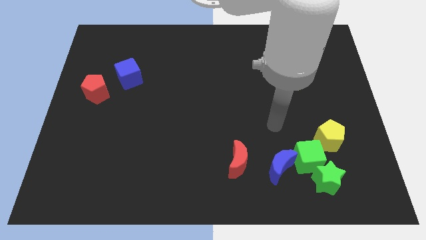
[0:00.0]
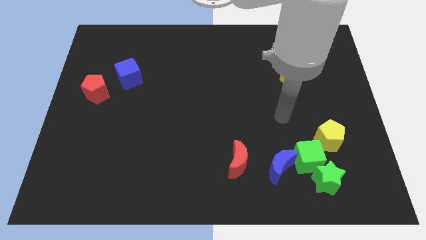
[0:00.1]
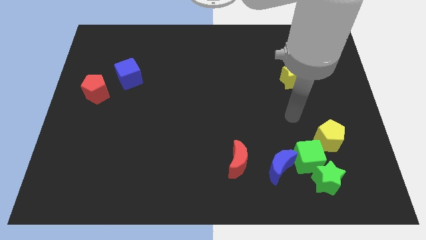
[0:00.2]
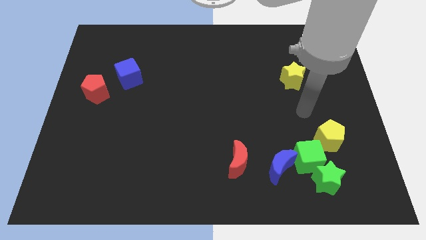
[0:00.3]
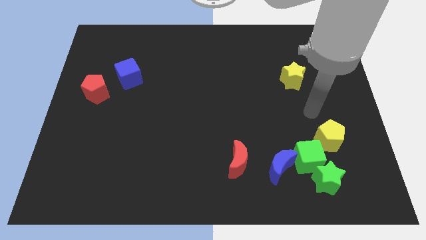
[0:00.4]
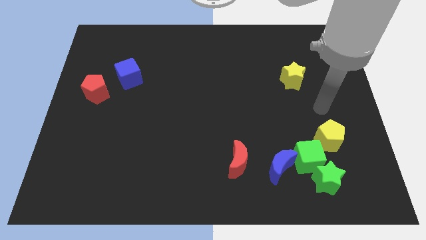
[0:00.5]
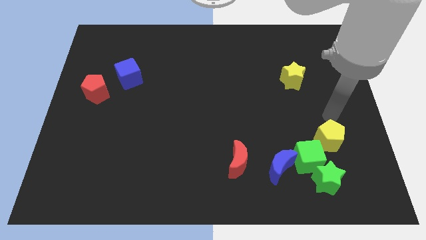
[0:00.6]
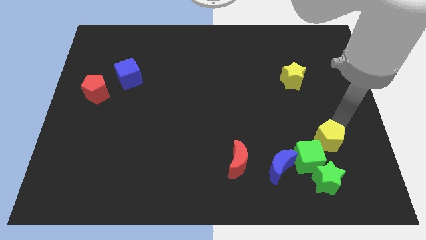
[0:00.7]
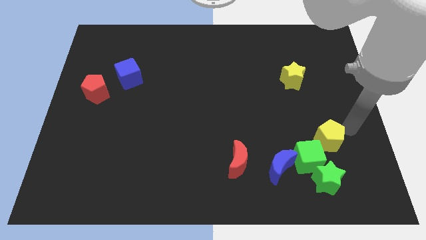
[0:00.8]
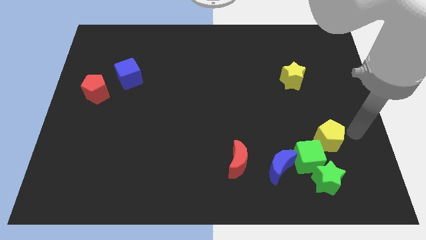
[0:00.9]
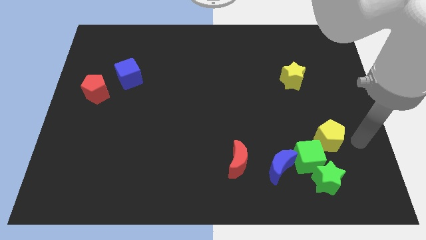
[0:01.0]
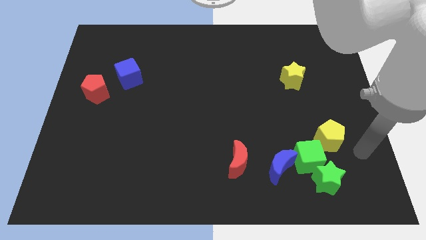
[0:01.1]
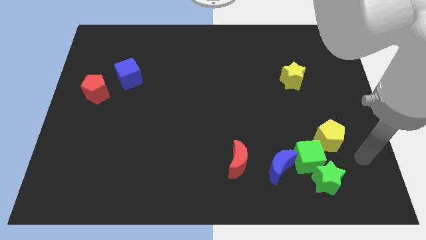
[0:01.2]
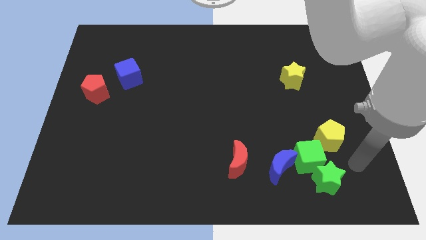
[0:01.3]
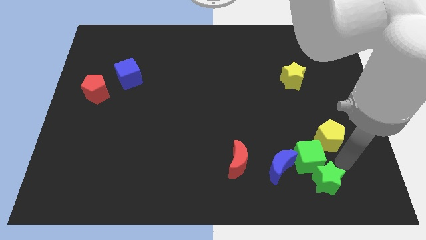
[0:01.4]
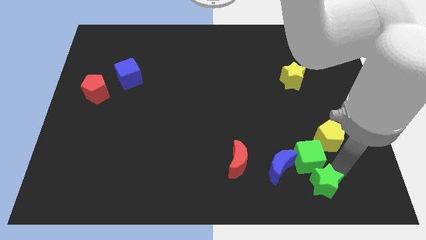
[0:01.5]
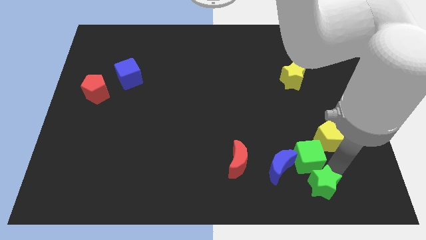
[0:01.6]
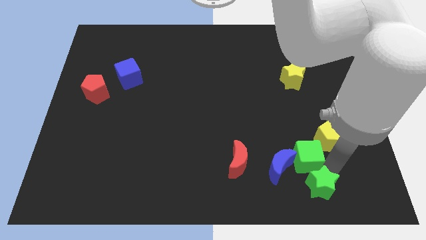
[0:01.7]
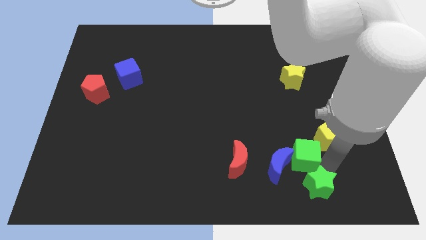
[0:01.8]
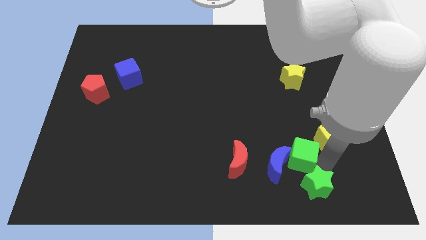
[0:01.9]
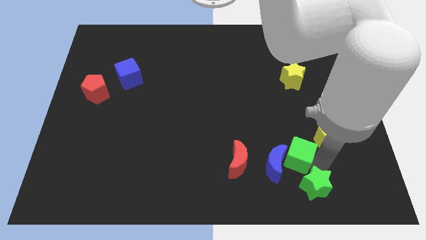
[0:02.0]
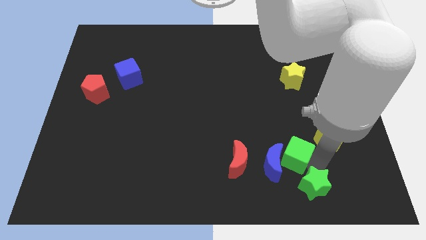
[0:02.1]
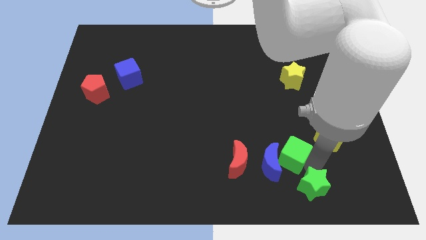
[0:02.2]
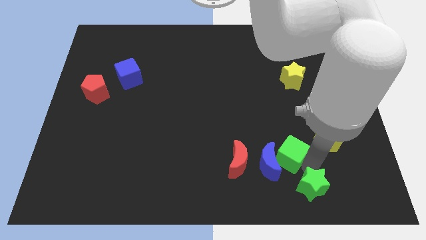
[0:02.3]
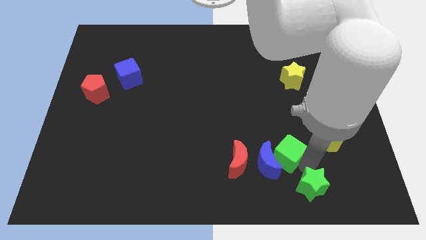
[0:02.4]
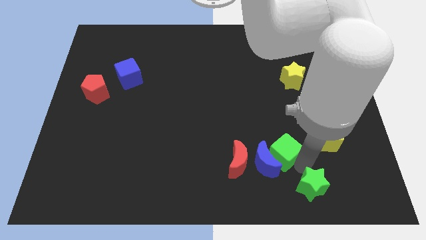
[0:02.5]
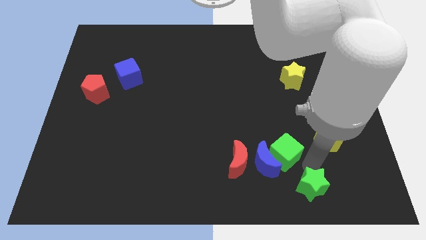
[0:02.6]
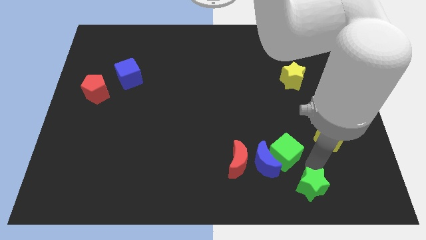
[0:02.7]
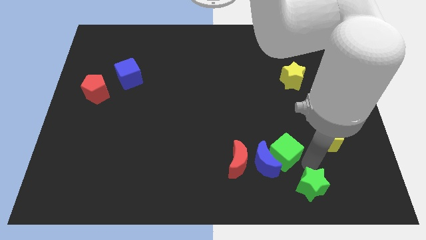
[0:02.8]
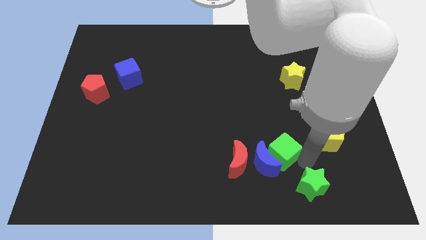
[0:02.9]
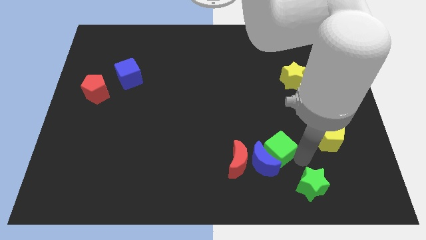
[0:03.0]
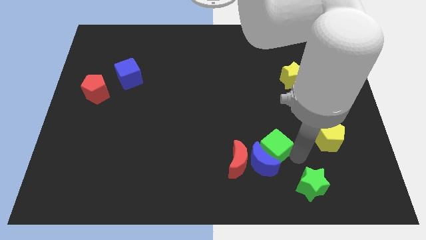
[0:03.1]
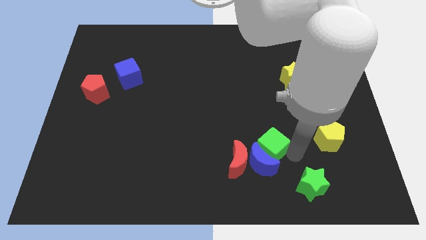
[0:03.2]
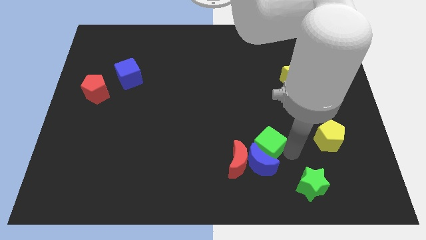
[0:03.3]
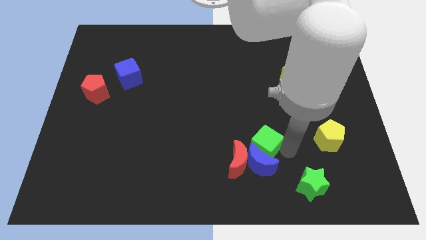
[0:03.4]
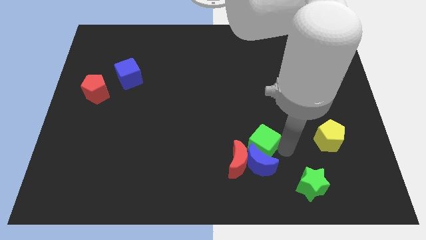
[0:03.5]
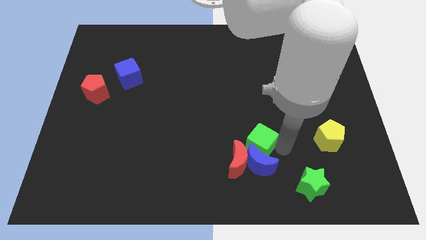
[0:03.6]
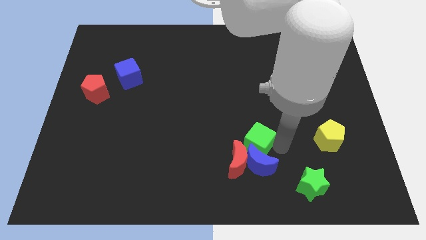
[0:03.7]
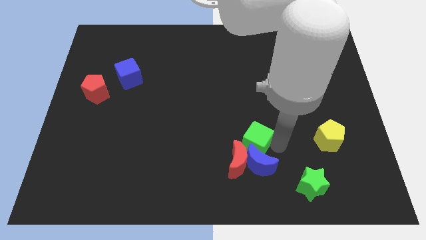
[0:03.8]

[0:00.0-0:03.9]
separate the green cube from the clump

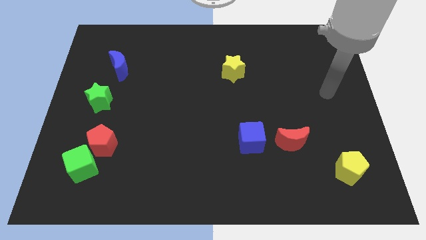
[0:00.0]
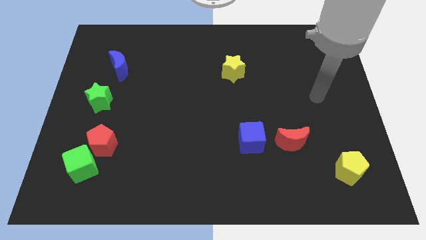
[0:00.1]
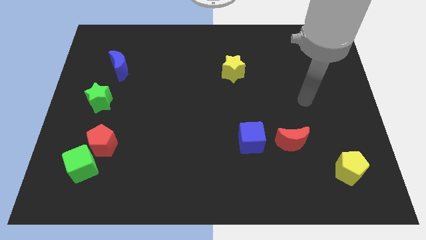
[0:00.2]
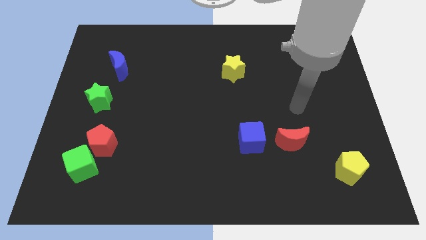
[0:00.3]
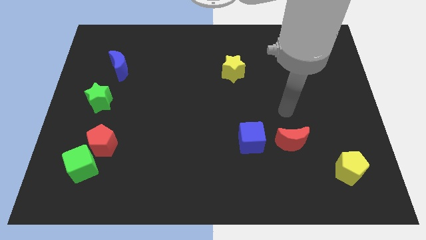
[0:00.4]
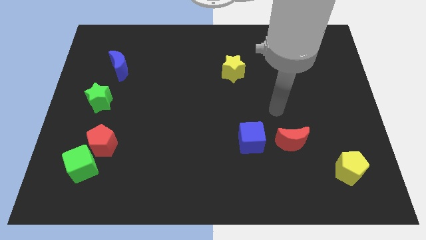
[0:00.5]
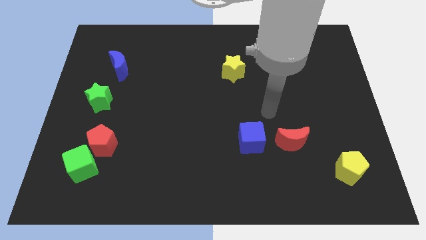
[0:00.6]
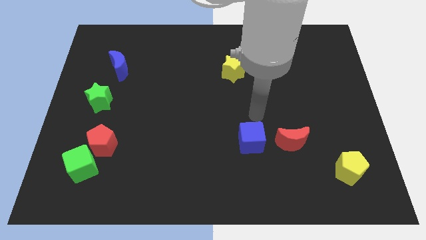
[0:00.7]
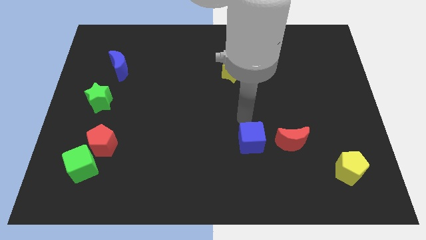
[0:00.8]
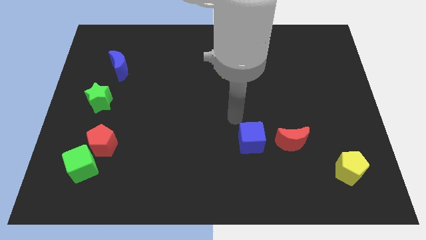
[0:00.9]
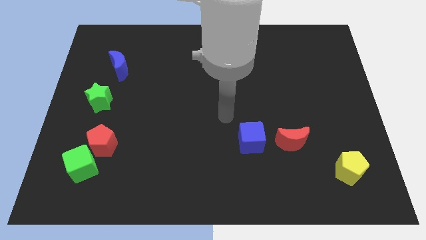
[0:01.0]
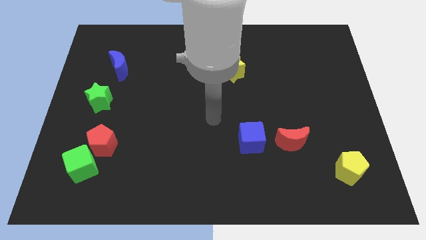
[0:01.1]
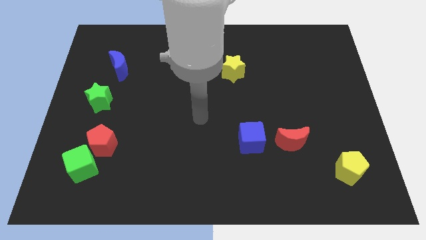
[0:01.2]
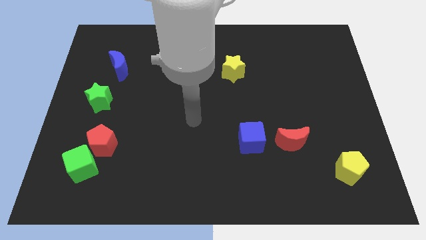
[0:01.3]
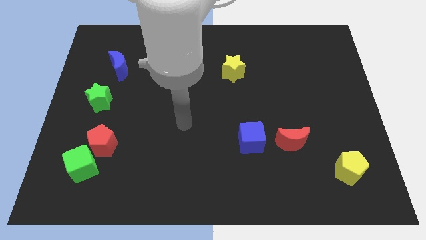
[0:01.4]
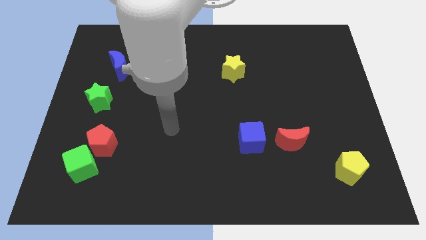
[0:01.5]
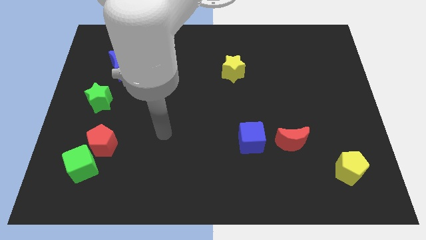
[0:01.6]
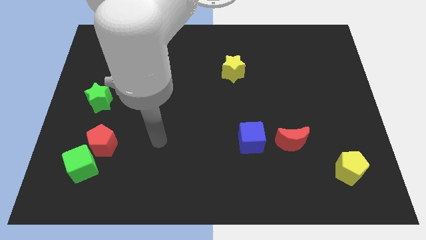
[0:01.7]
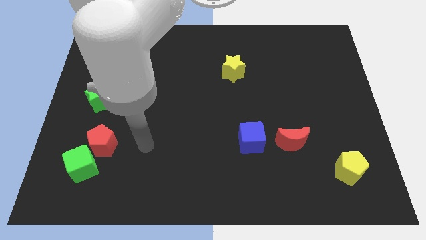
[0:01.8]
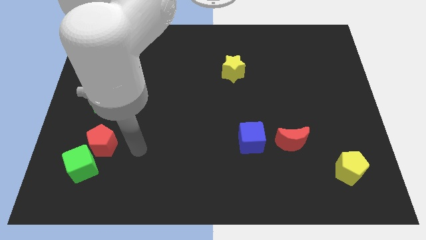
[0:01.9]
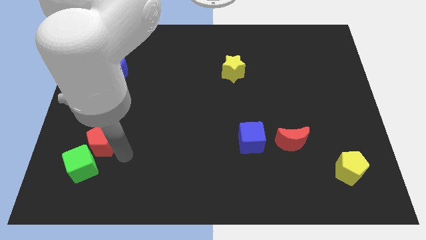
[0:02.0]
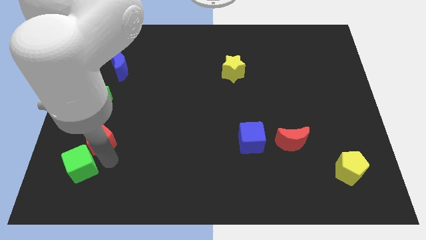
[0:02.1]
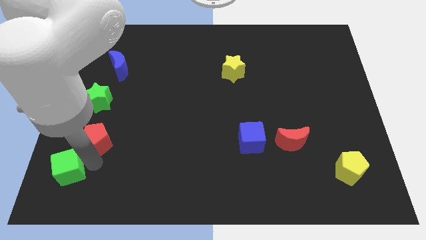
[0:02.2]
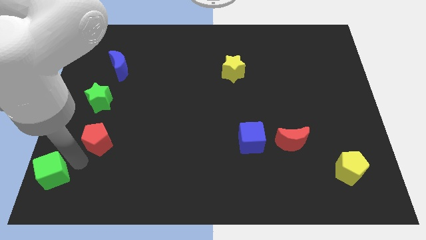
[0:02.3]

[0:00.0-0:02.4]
separate the red pentagon from the green cube

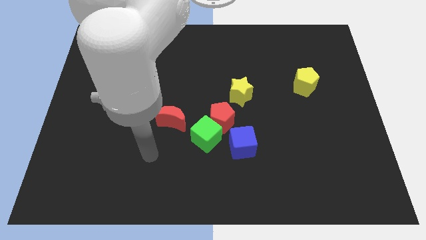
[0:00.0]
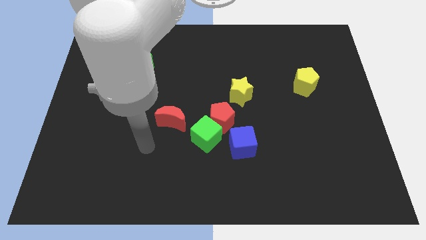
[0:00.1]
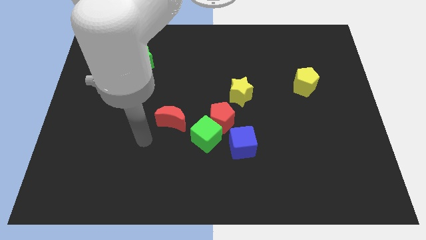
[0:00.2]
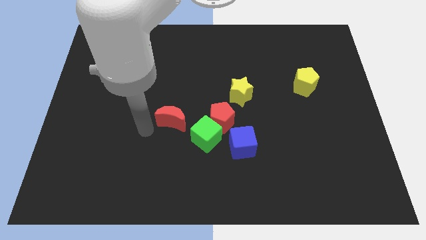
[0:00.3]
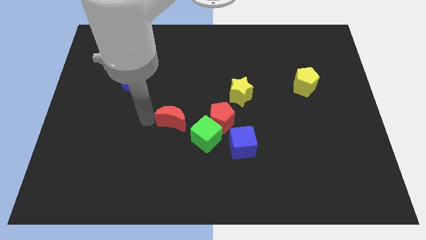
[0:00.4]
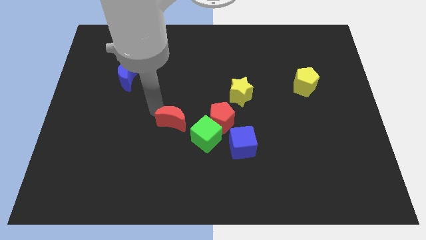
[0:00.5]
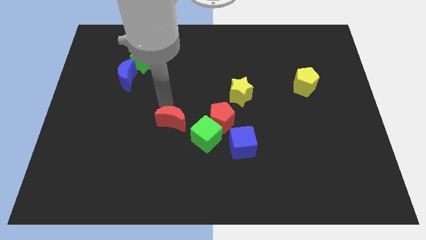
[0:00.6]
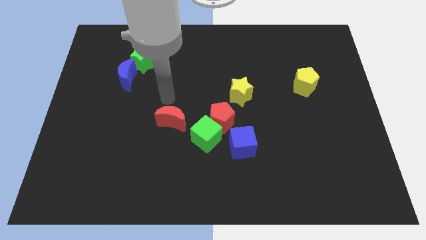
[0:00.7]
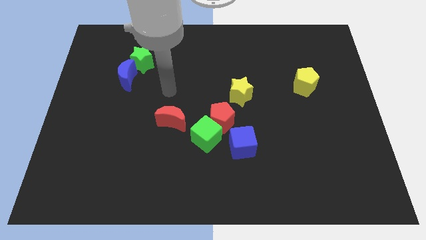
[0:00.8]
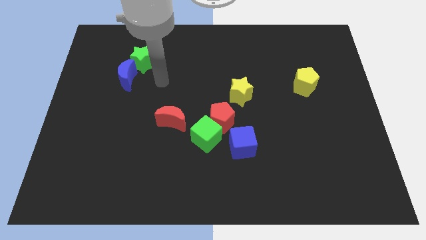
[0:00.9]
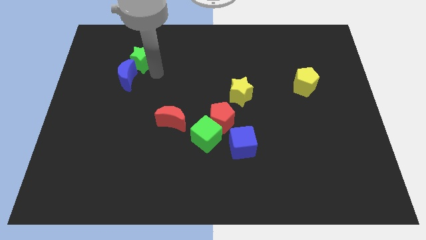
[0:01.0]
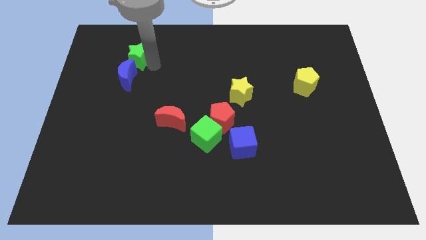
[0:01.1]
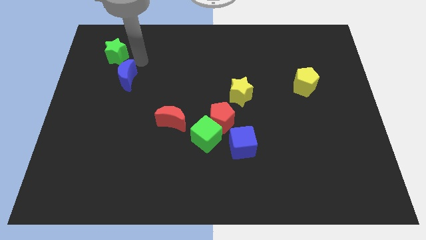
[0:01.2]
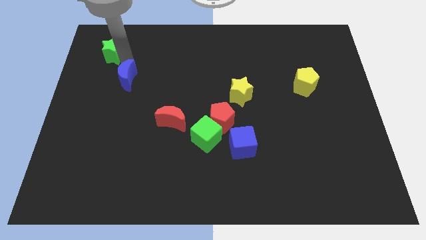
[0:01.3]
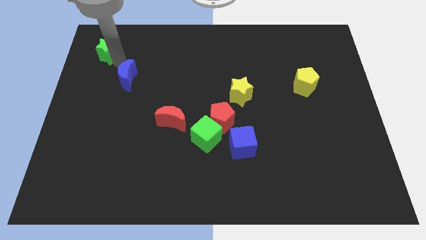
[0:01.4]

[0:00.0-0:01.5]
separate the blue moon from the green star

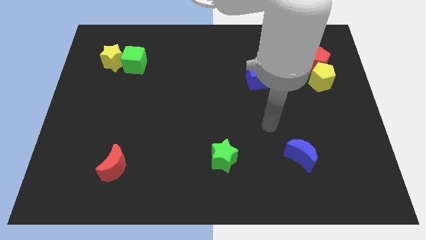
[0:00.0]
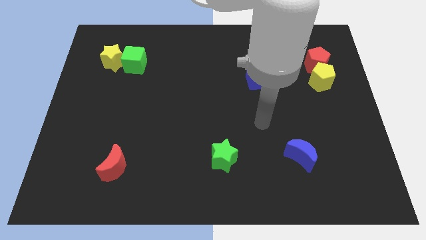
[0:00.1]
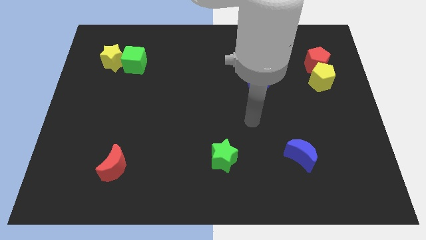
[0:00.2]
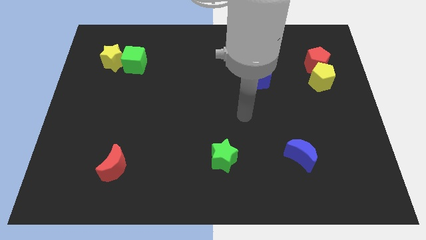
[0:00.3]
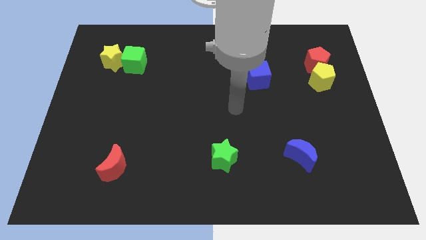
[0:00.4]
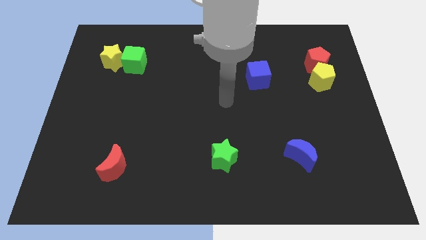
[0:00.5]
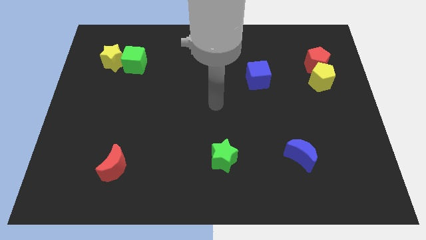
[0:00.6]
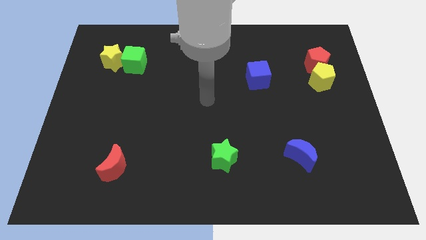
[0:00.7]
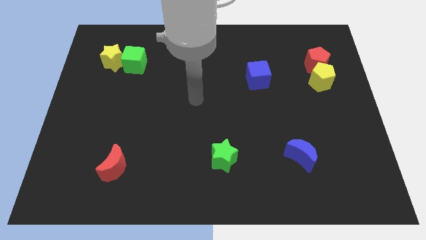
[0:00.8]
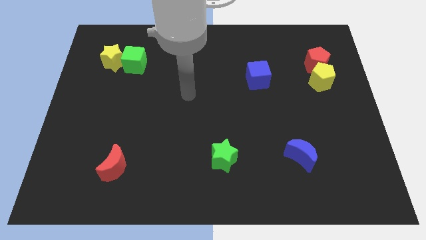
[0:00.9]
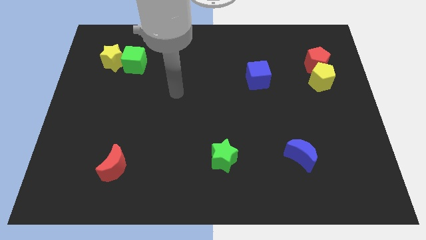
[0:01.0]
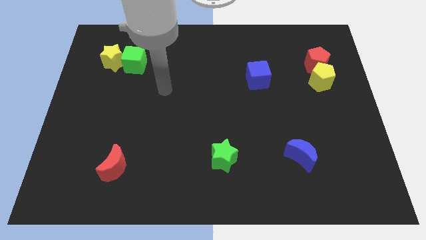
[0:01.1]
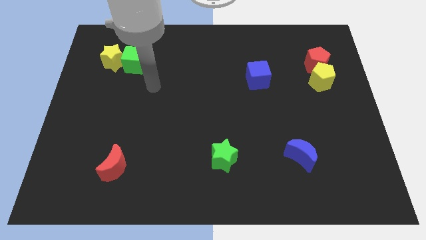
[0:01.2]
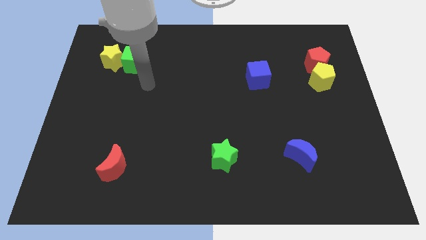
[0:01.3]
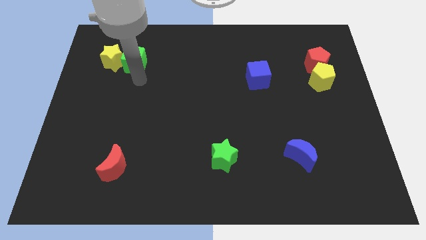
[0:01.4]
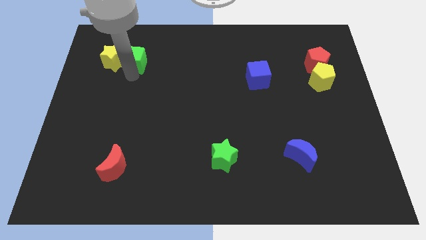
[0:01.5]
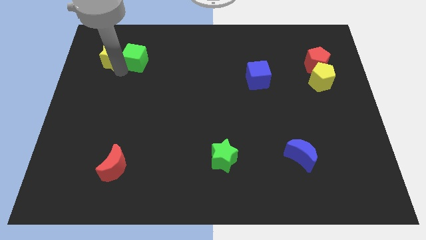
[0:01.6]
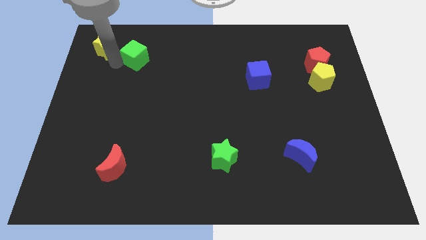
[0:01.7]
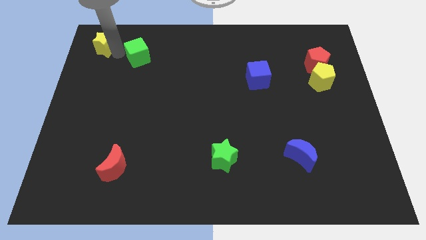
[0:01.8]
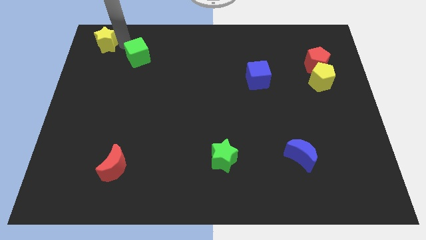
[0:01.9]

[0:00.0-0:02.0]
pull the green cube apart from the yellow star
